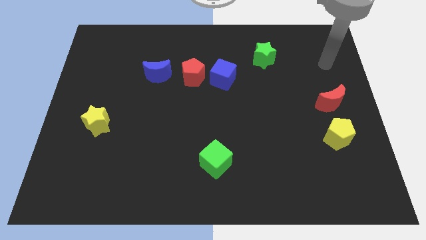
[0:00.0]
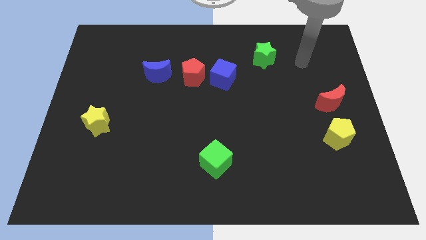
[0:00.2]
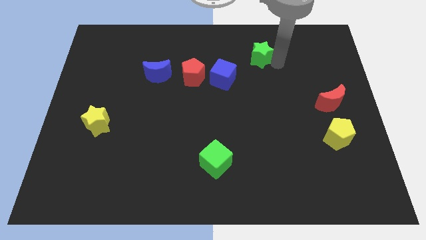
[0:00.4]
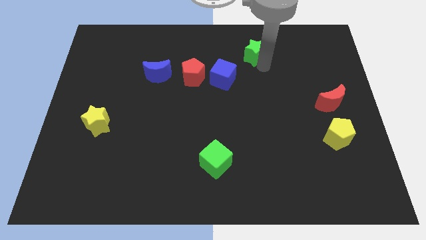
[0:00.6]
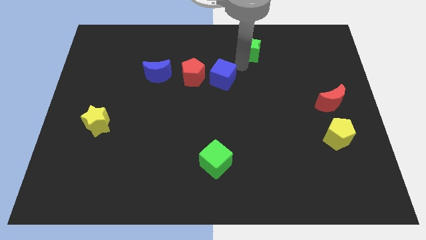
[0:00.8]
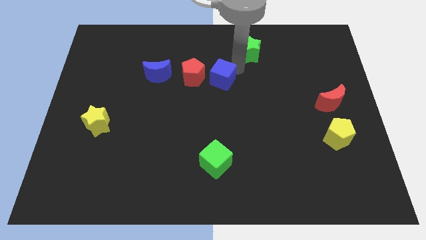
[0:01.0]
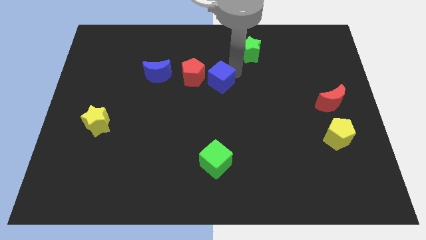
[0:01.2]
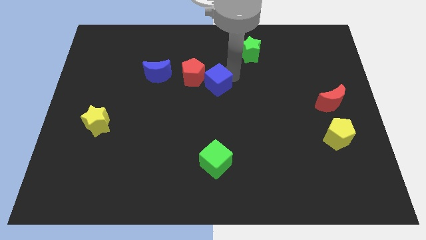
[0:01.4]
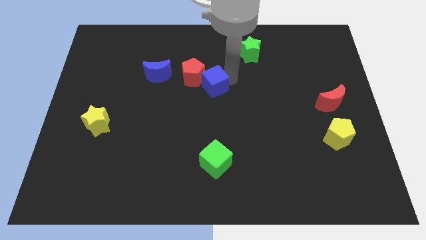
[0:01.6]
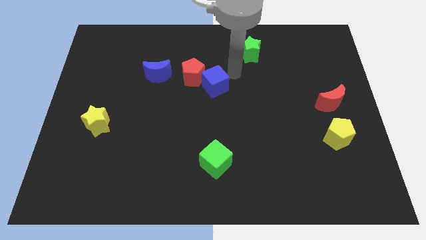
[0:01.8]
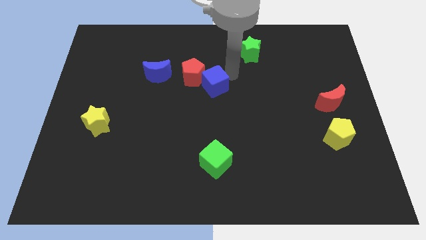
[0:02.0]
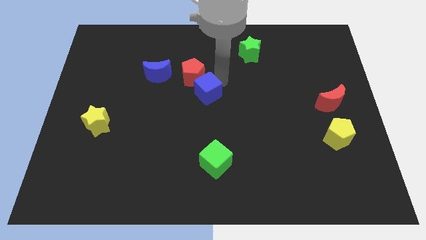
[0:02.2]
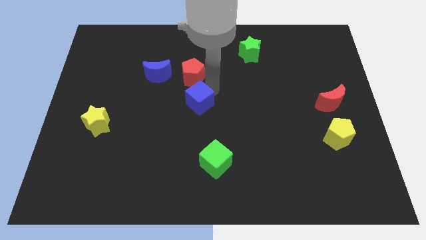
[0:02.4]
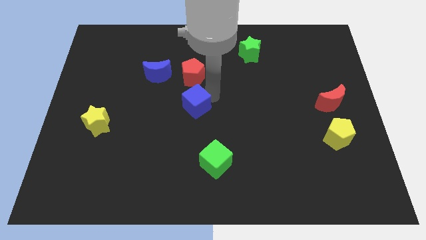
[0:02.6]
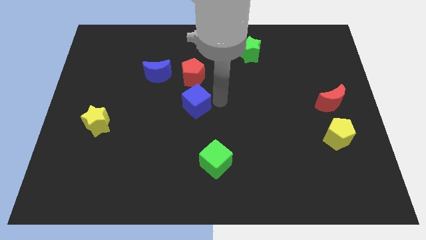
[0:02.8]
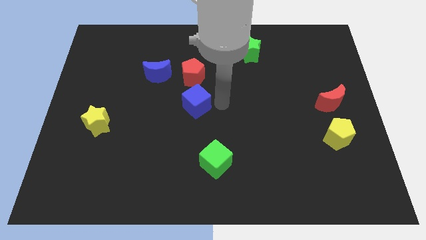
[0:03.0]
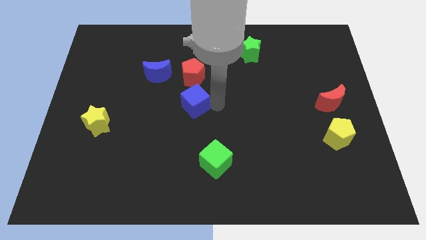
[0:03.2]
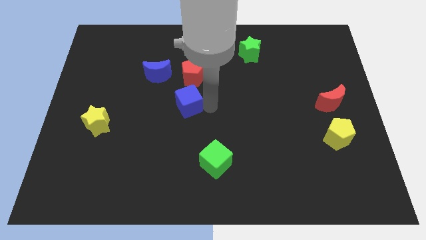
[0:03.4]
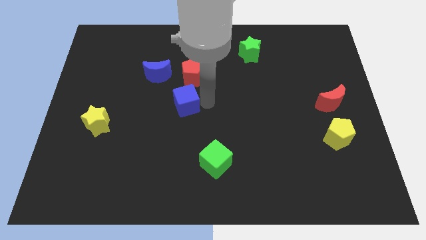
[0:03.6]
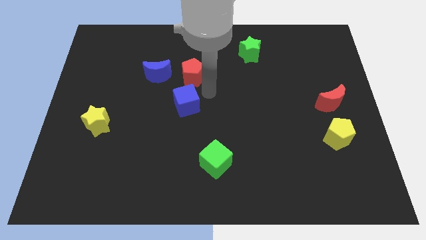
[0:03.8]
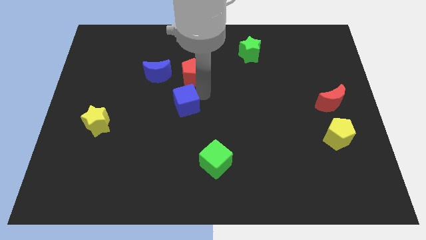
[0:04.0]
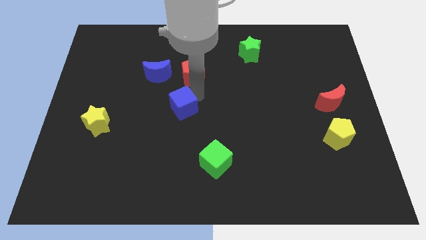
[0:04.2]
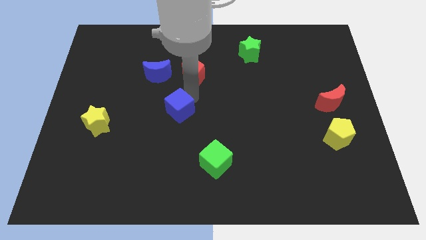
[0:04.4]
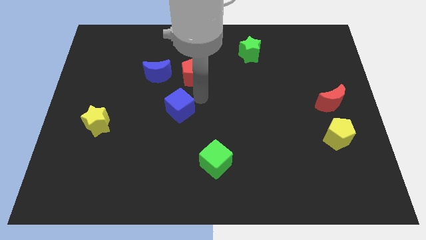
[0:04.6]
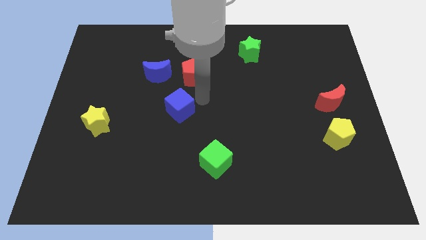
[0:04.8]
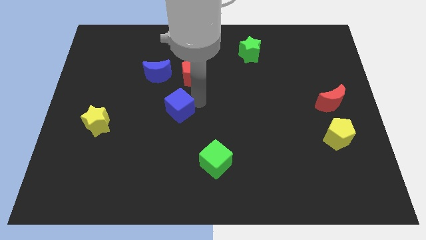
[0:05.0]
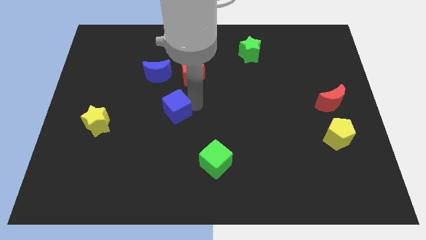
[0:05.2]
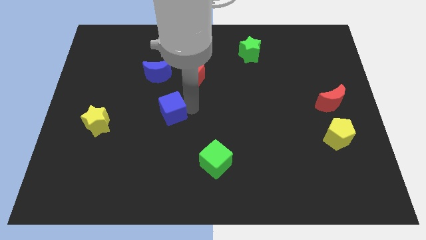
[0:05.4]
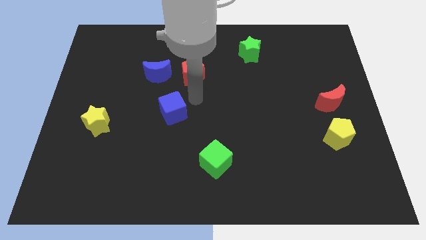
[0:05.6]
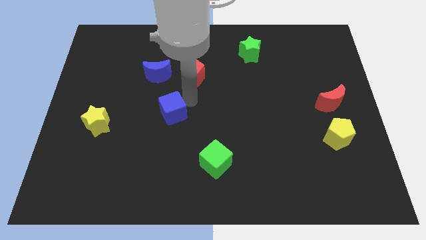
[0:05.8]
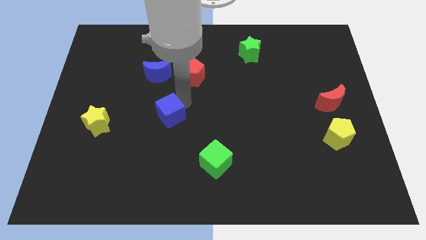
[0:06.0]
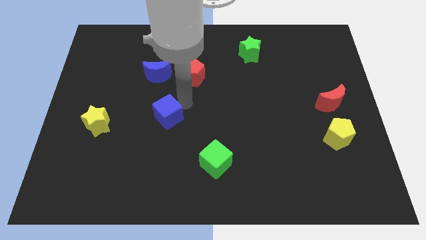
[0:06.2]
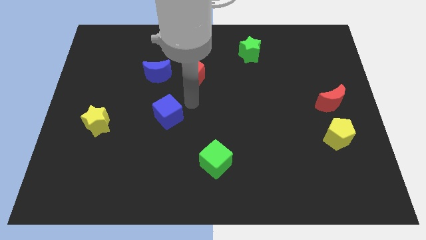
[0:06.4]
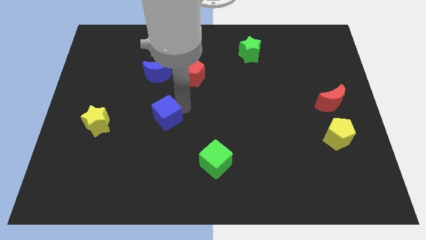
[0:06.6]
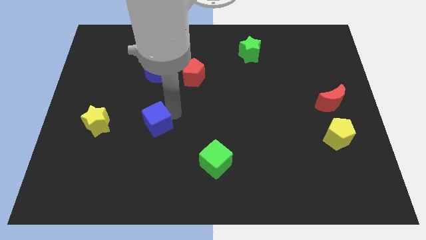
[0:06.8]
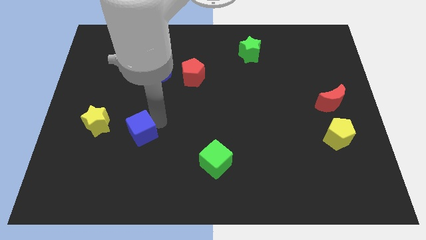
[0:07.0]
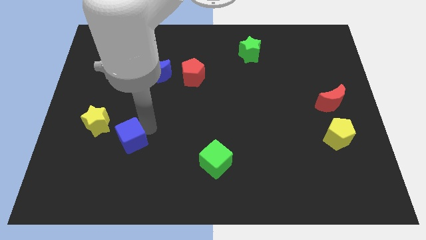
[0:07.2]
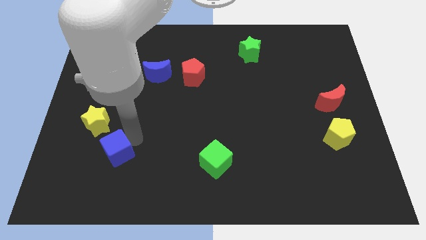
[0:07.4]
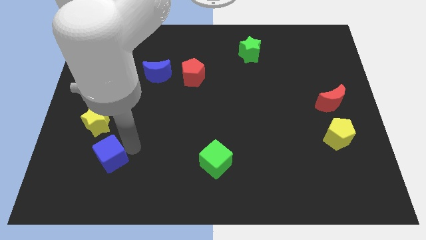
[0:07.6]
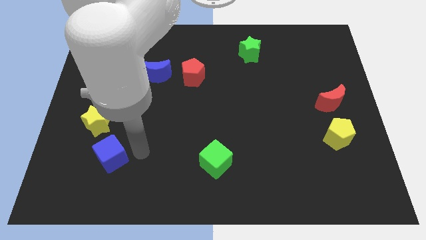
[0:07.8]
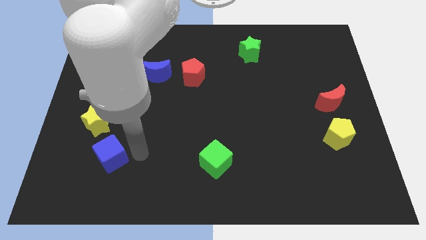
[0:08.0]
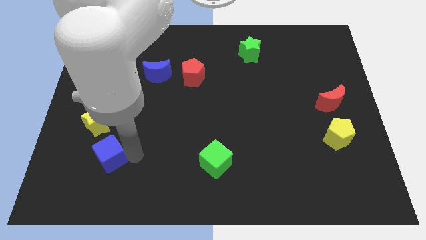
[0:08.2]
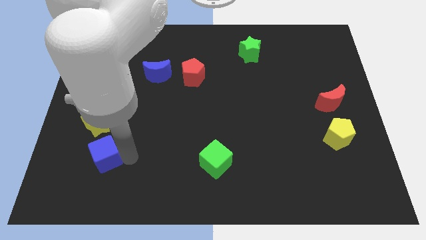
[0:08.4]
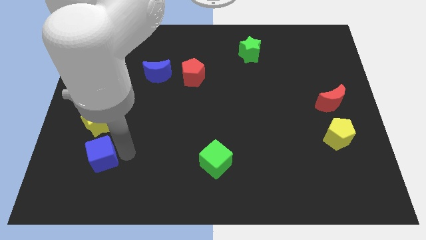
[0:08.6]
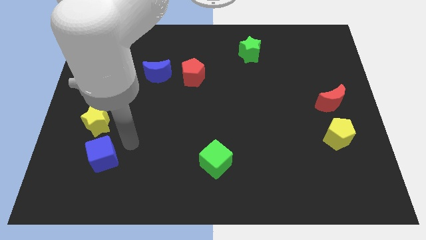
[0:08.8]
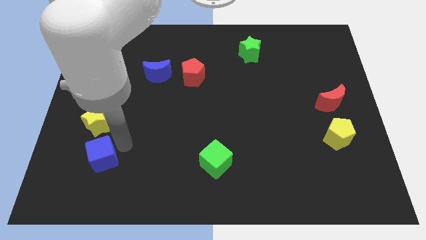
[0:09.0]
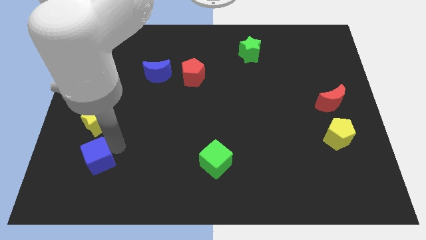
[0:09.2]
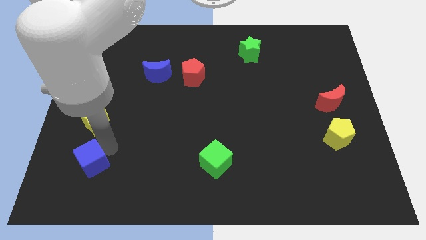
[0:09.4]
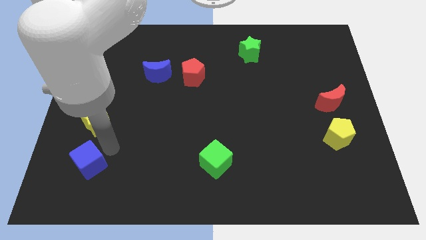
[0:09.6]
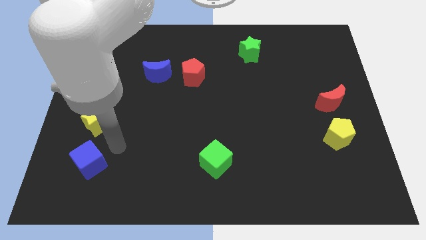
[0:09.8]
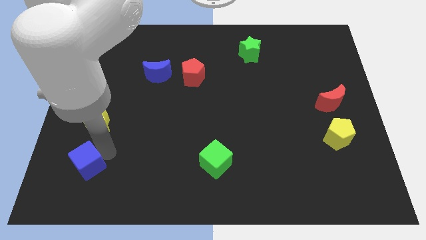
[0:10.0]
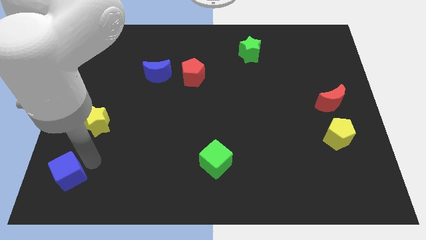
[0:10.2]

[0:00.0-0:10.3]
slide the blue cube to the bottom left of the board

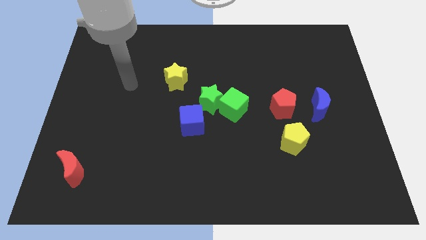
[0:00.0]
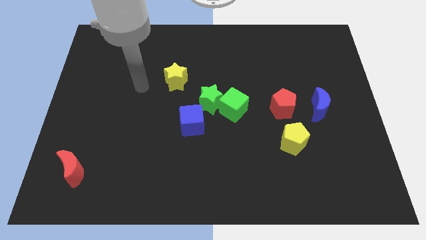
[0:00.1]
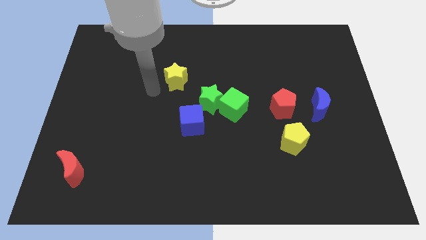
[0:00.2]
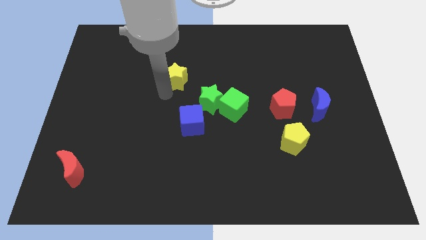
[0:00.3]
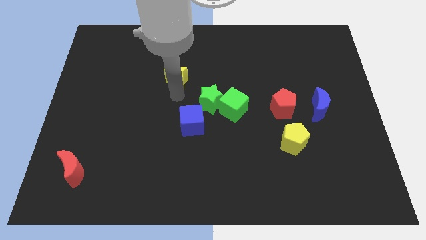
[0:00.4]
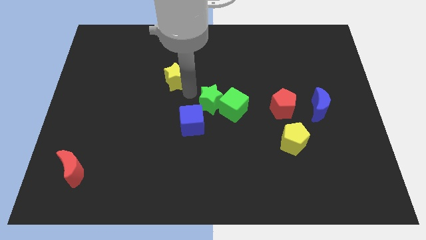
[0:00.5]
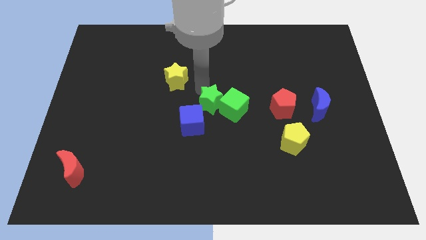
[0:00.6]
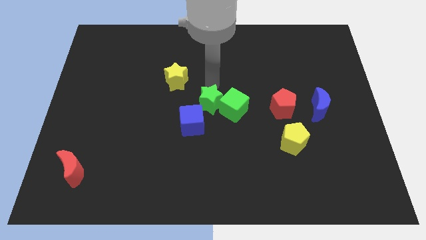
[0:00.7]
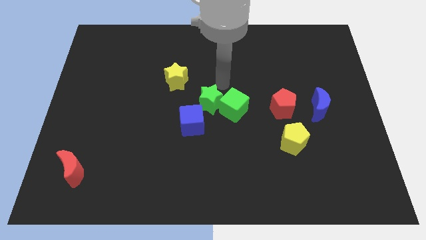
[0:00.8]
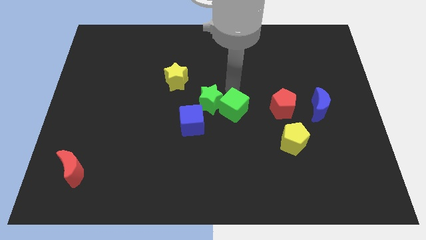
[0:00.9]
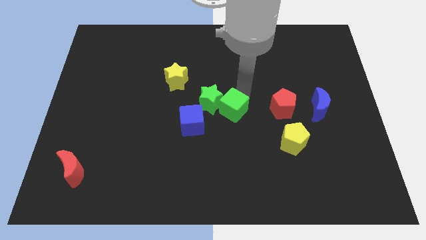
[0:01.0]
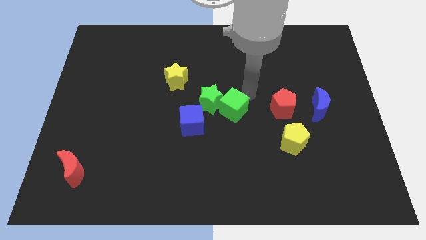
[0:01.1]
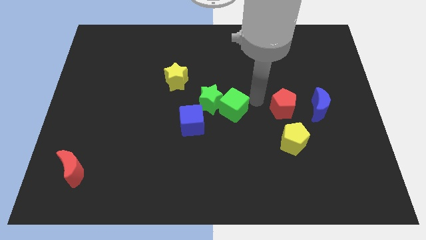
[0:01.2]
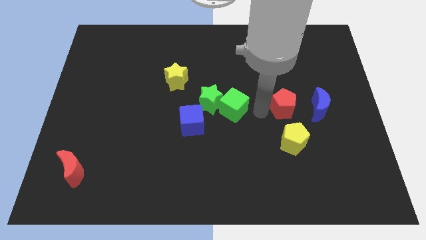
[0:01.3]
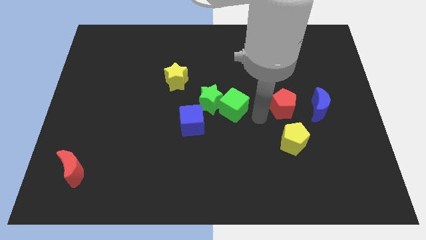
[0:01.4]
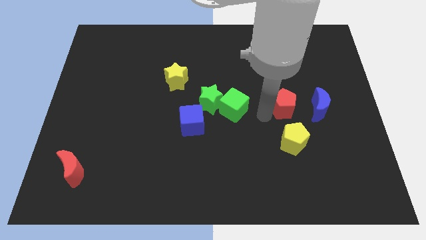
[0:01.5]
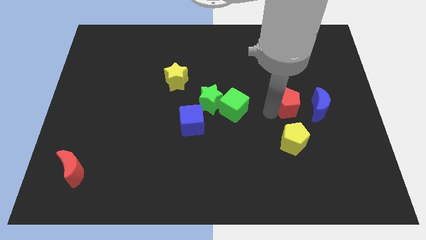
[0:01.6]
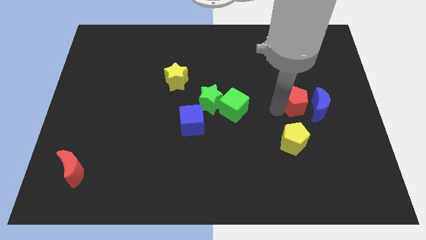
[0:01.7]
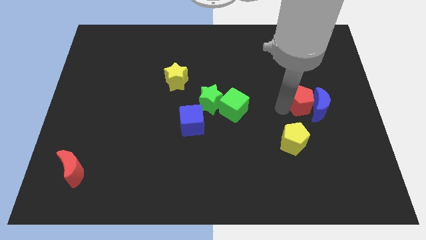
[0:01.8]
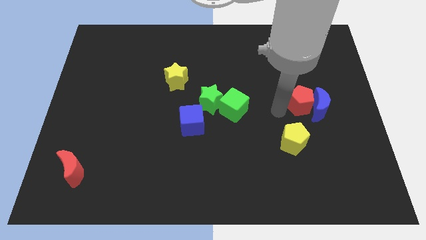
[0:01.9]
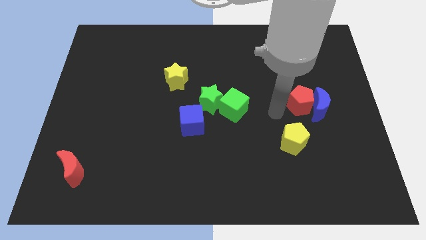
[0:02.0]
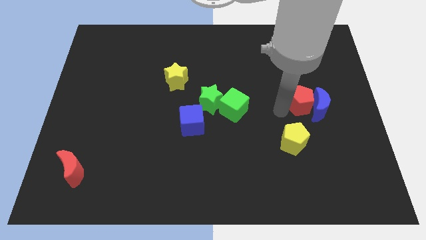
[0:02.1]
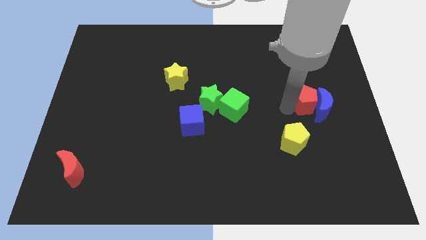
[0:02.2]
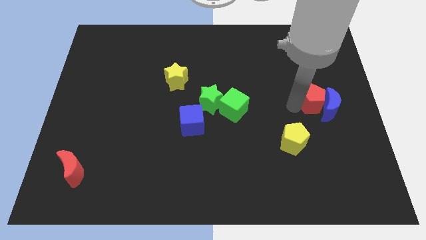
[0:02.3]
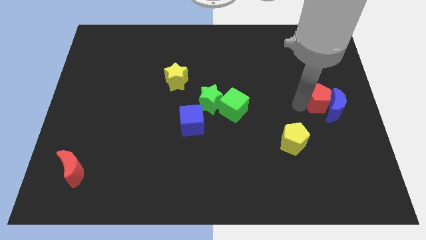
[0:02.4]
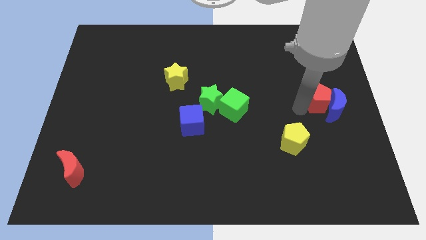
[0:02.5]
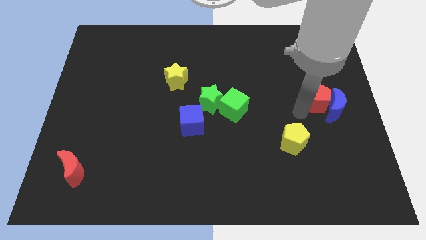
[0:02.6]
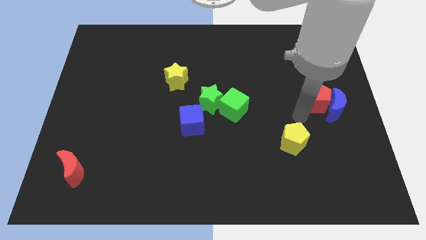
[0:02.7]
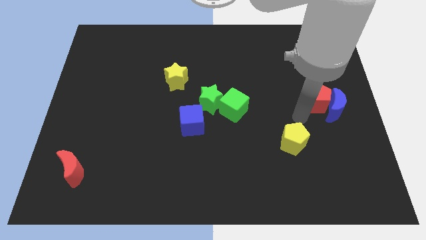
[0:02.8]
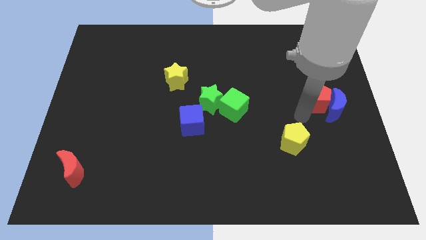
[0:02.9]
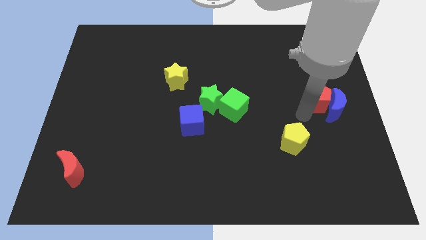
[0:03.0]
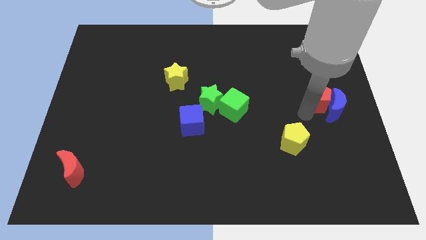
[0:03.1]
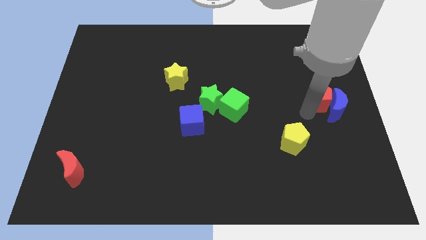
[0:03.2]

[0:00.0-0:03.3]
put the red pentagon to the right side of the board
